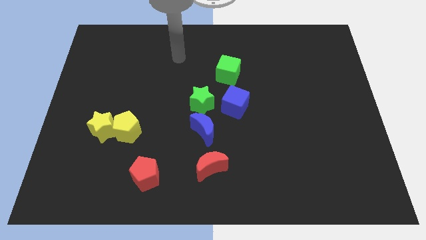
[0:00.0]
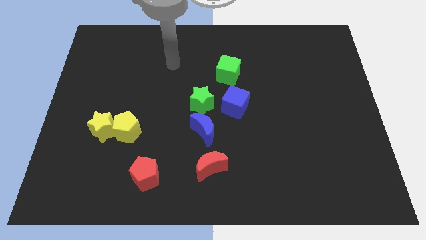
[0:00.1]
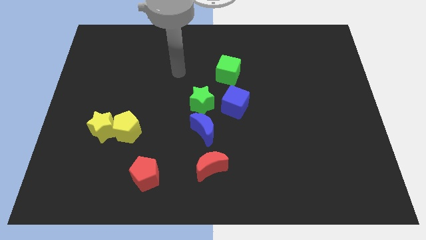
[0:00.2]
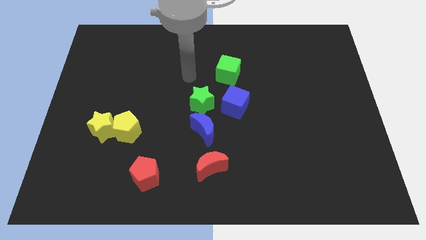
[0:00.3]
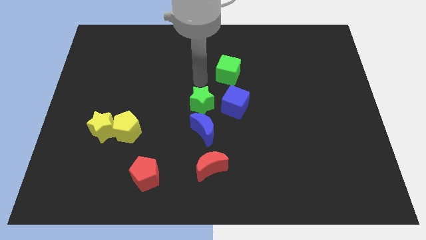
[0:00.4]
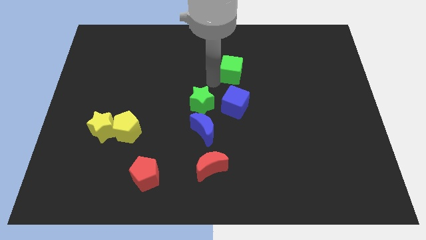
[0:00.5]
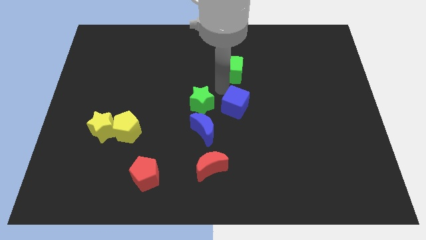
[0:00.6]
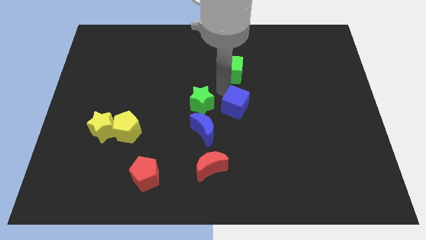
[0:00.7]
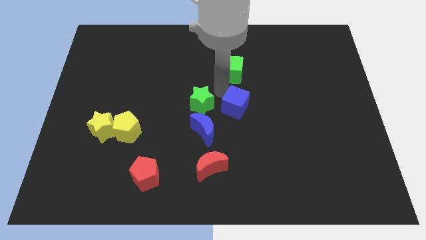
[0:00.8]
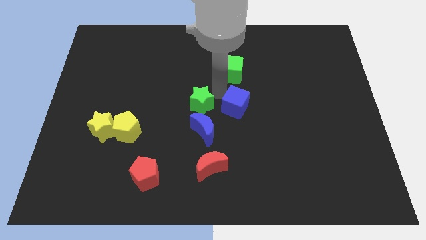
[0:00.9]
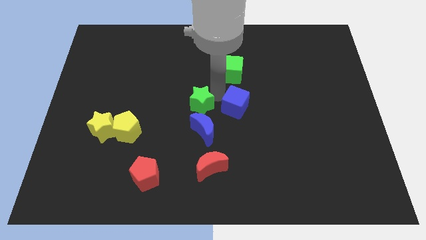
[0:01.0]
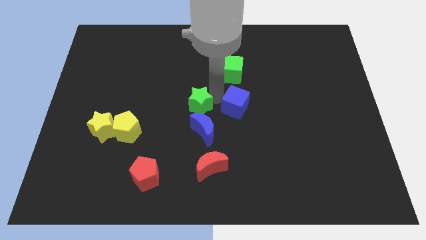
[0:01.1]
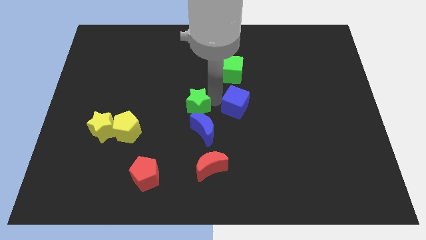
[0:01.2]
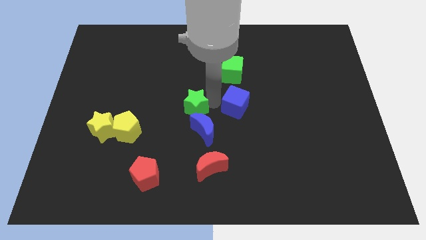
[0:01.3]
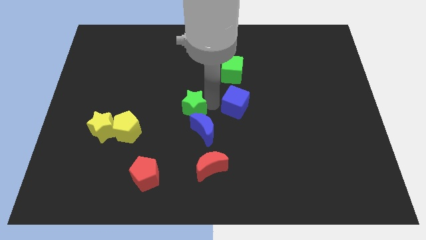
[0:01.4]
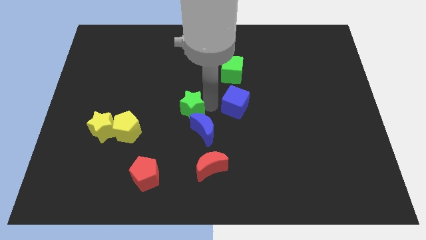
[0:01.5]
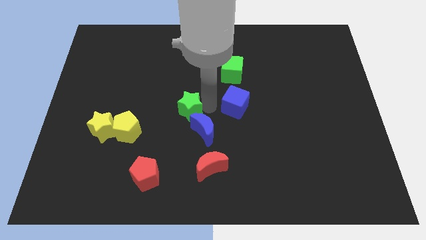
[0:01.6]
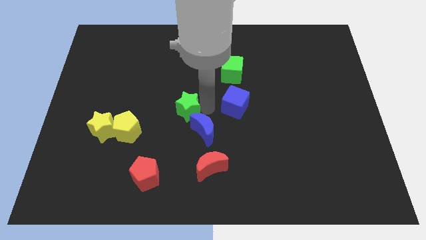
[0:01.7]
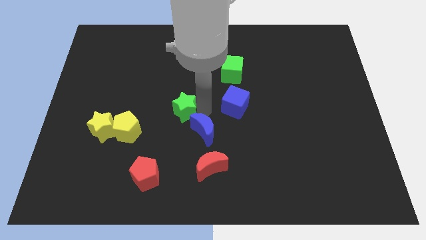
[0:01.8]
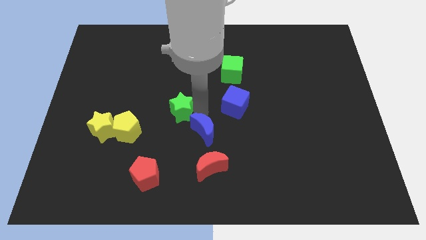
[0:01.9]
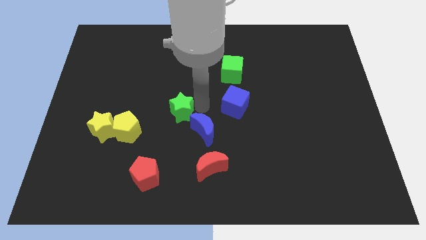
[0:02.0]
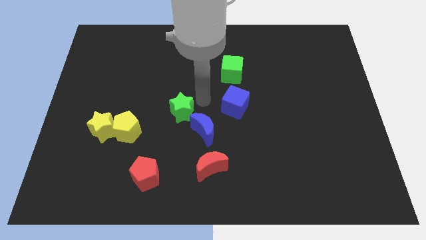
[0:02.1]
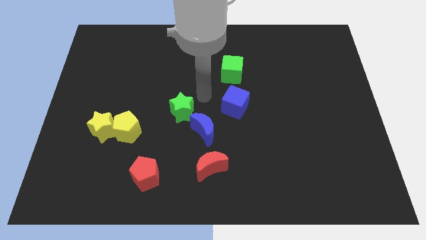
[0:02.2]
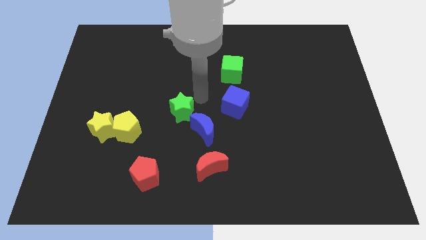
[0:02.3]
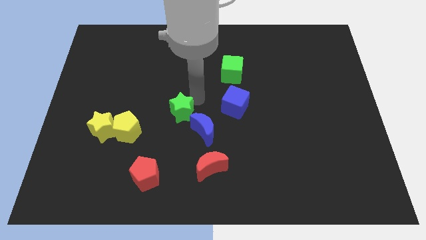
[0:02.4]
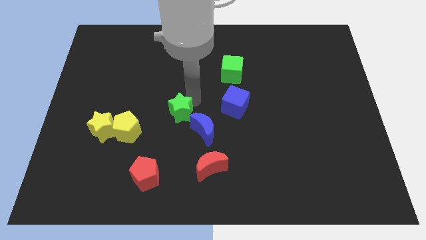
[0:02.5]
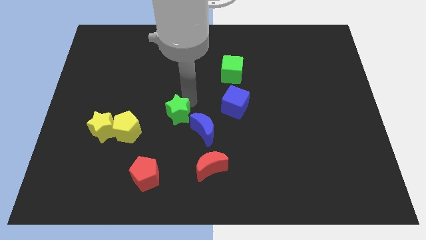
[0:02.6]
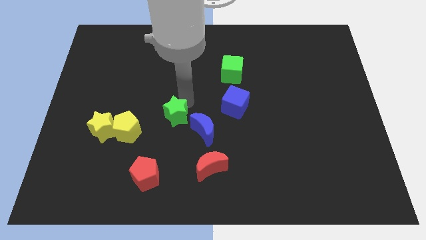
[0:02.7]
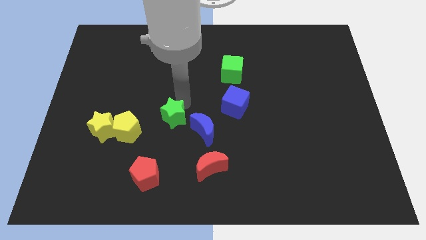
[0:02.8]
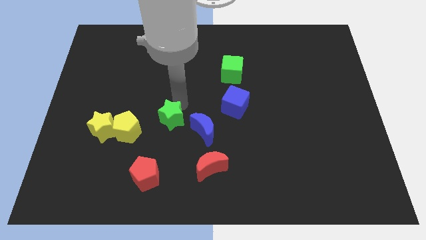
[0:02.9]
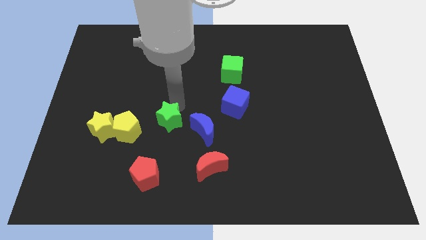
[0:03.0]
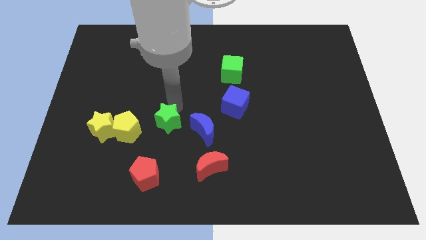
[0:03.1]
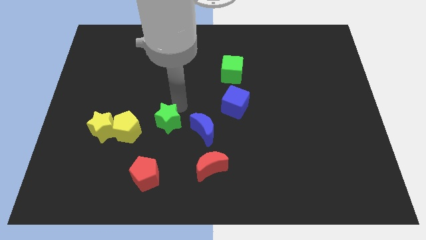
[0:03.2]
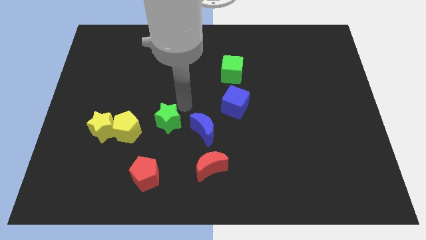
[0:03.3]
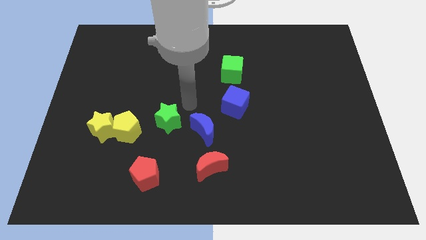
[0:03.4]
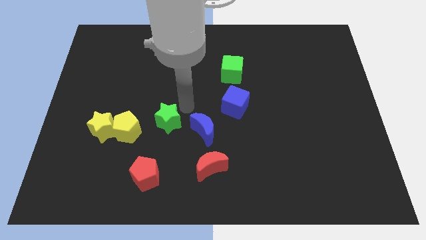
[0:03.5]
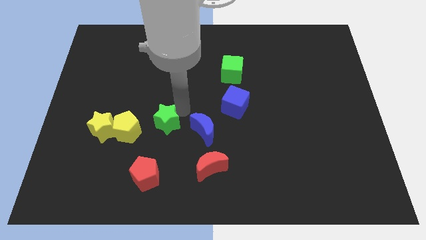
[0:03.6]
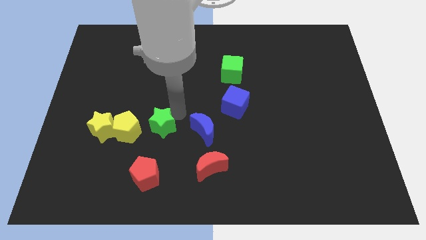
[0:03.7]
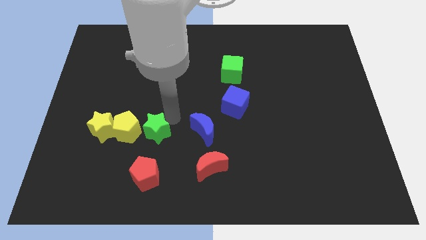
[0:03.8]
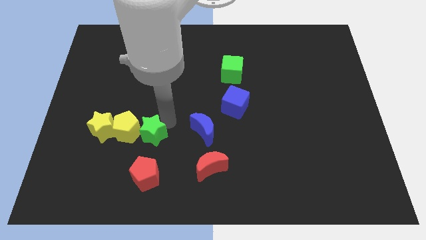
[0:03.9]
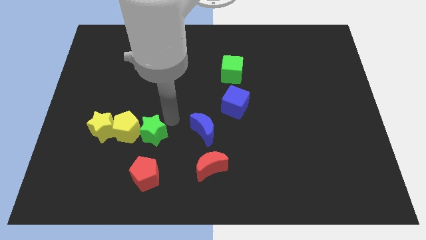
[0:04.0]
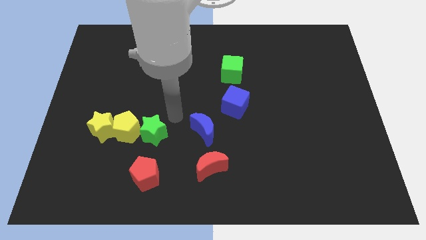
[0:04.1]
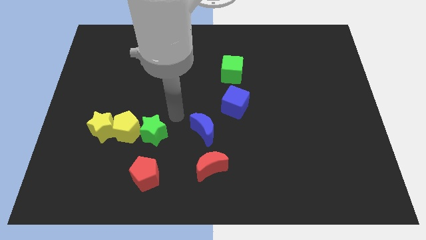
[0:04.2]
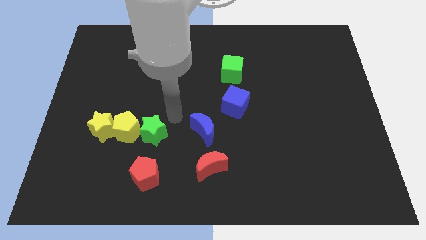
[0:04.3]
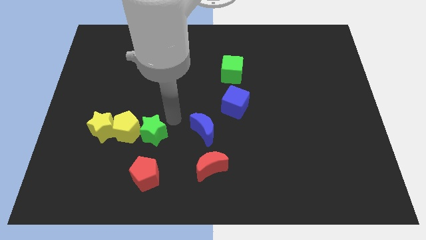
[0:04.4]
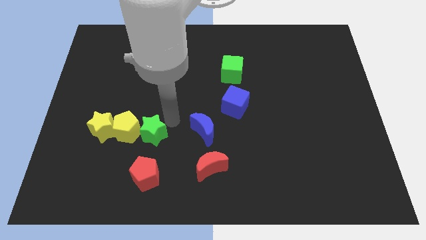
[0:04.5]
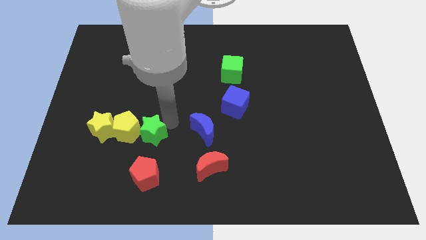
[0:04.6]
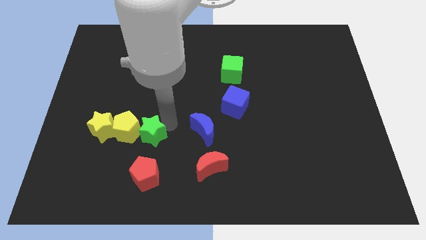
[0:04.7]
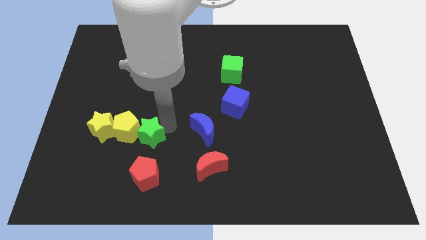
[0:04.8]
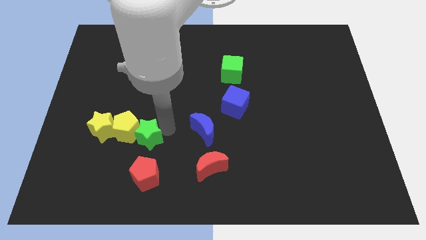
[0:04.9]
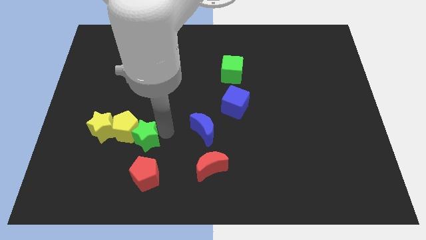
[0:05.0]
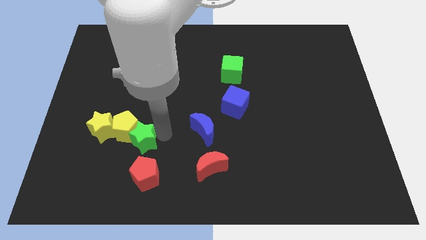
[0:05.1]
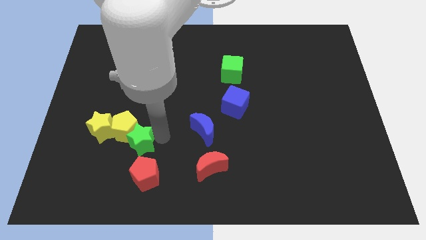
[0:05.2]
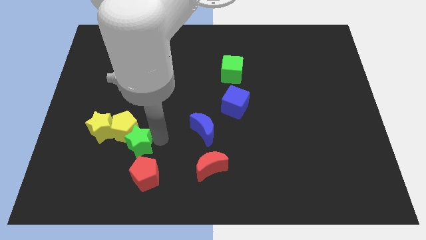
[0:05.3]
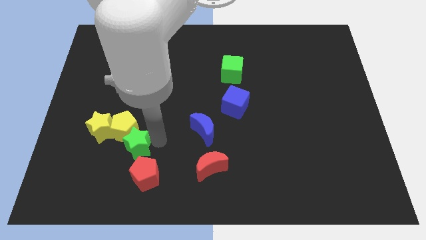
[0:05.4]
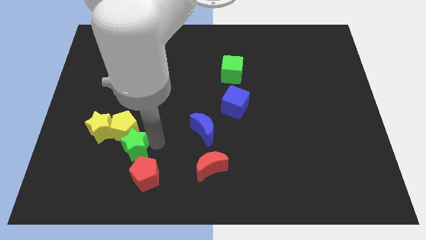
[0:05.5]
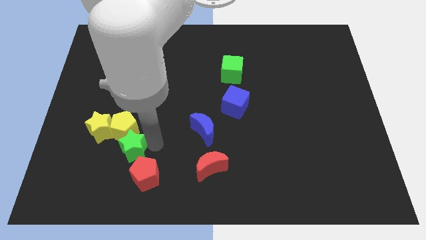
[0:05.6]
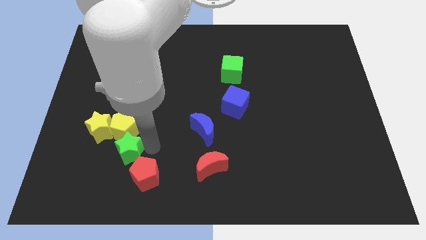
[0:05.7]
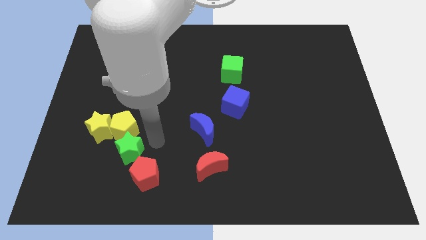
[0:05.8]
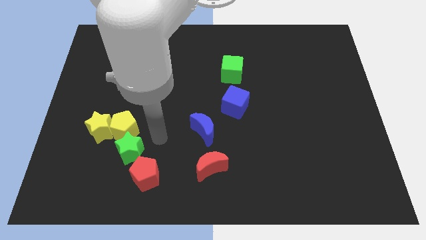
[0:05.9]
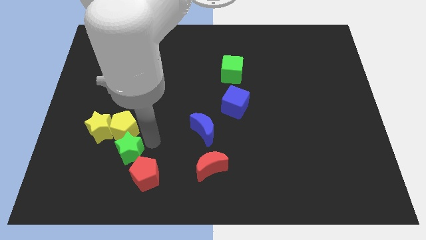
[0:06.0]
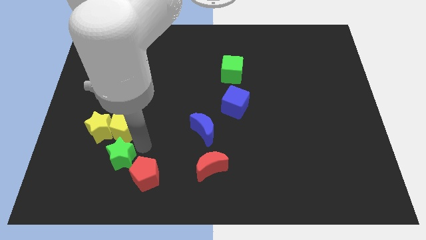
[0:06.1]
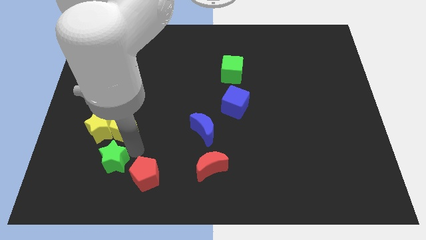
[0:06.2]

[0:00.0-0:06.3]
put the green star below the yellow star

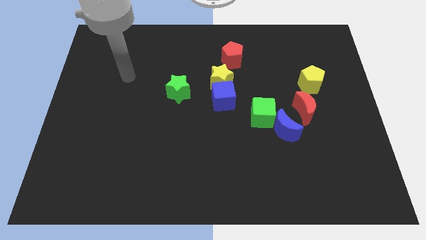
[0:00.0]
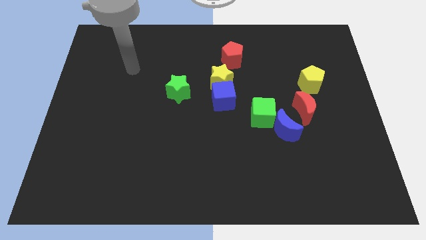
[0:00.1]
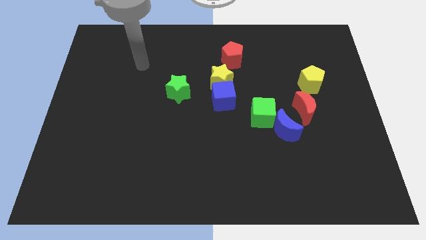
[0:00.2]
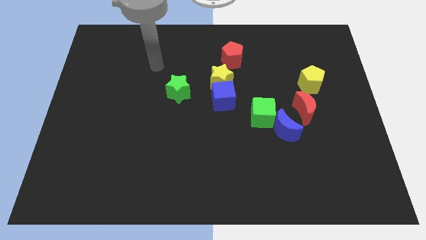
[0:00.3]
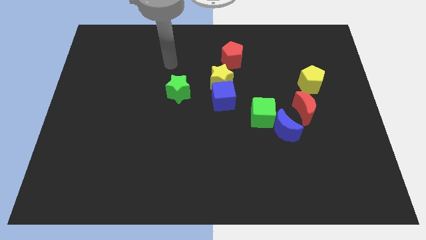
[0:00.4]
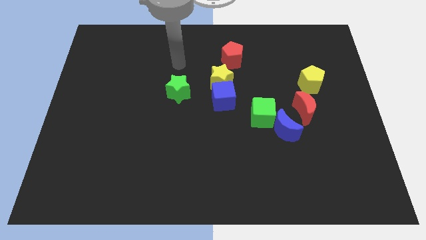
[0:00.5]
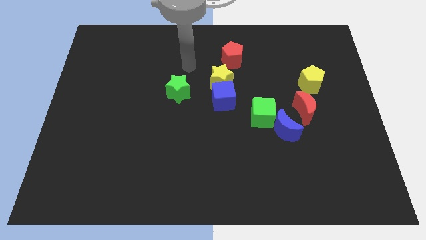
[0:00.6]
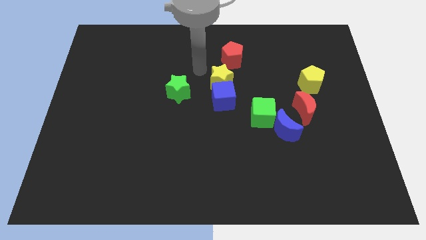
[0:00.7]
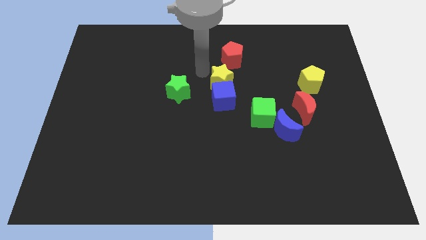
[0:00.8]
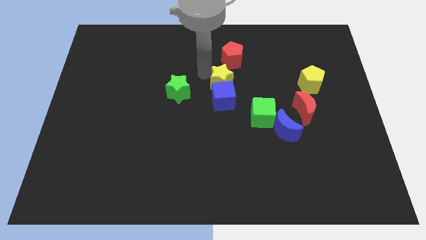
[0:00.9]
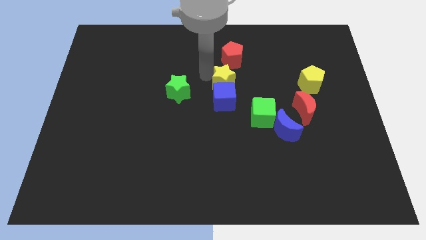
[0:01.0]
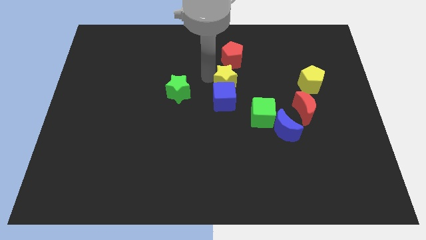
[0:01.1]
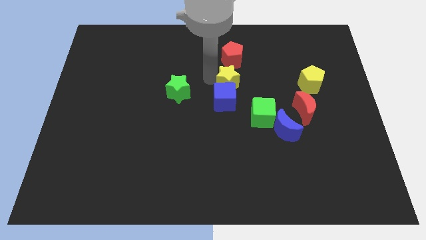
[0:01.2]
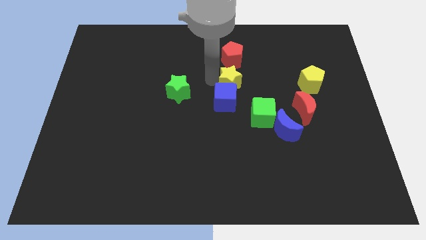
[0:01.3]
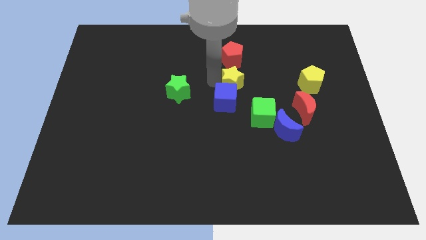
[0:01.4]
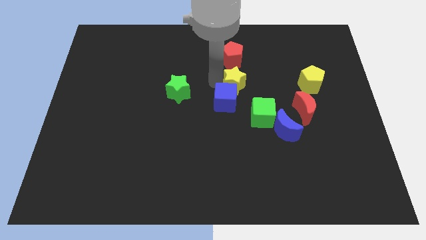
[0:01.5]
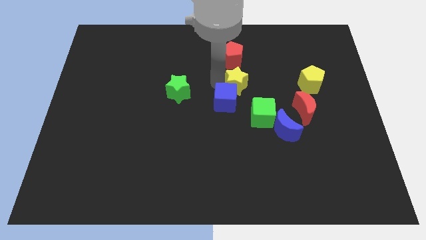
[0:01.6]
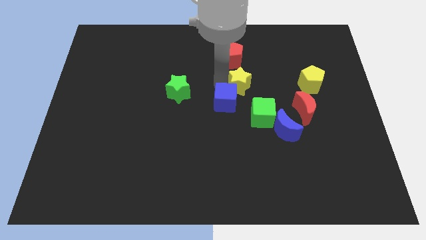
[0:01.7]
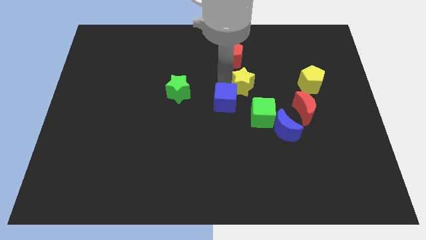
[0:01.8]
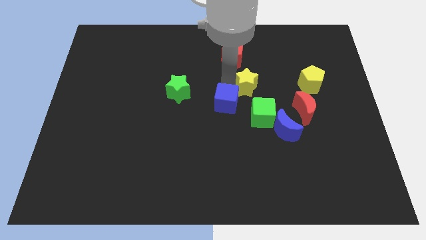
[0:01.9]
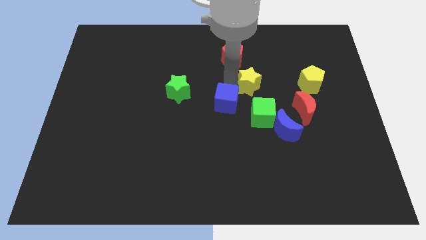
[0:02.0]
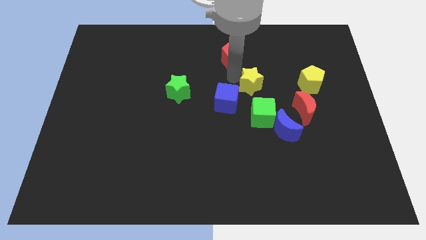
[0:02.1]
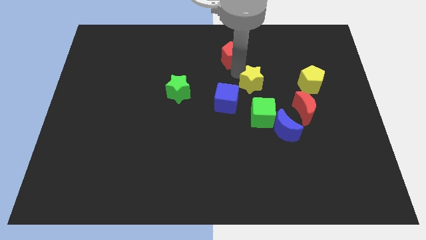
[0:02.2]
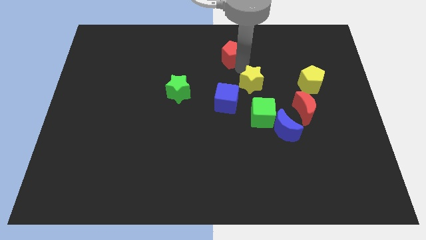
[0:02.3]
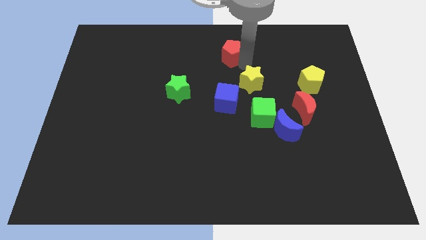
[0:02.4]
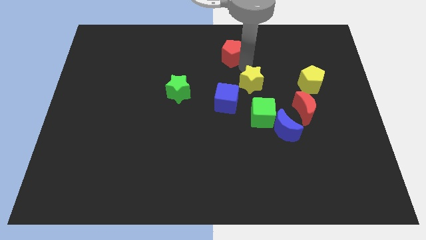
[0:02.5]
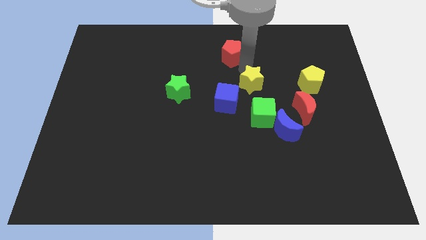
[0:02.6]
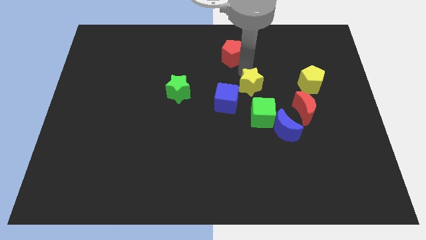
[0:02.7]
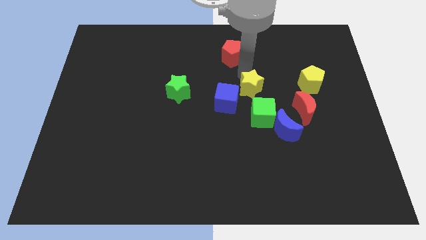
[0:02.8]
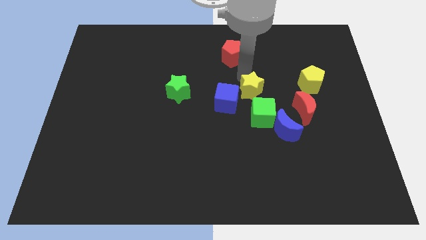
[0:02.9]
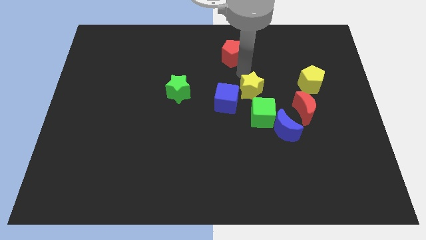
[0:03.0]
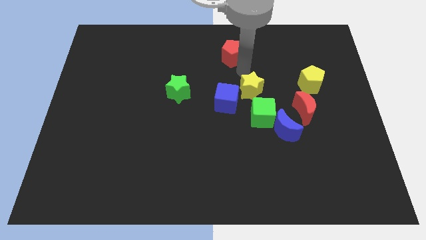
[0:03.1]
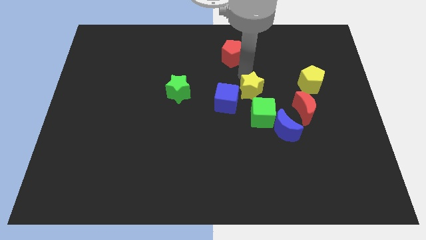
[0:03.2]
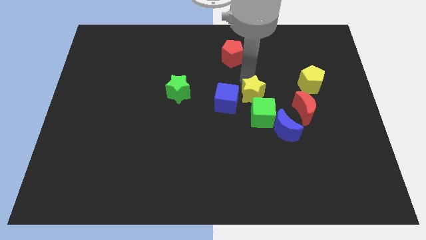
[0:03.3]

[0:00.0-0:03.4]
move the yellow star to the top left side of the blue moon
